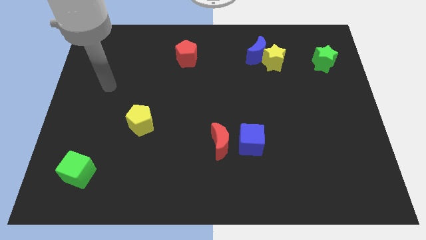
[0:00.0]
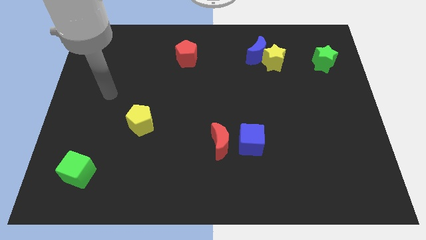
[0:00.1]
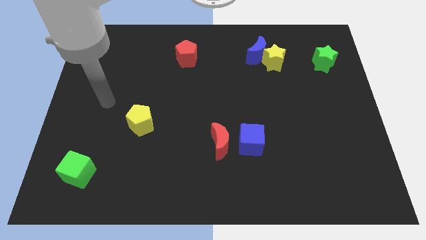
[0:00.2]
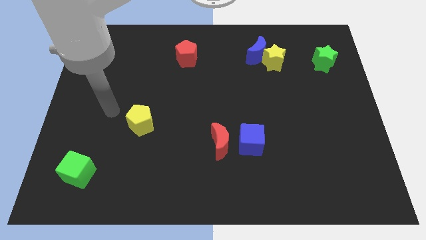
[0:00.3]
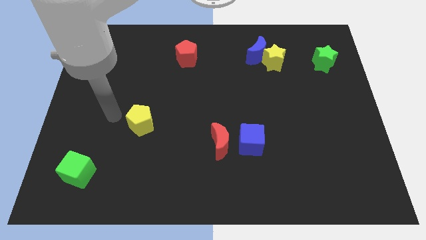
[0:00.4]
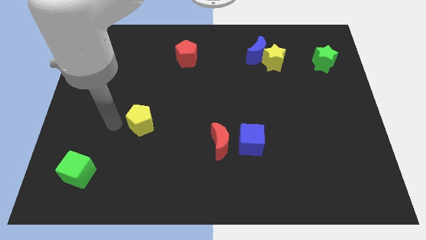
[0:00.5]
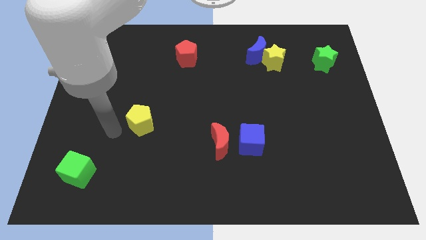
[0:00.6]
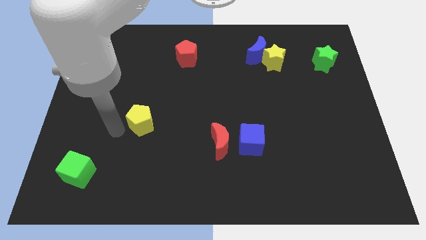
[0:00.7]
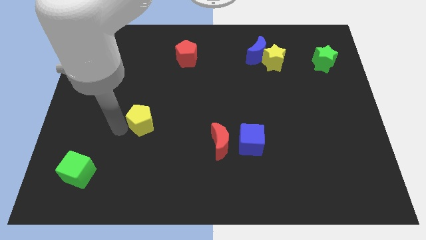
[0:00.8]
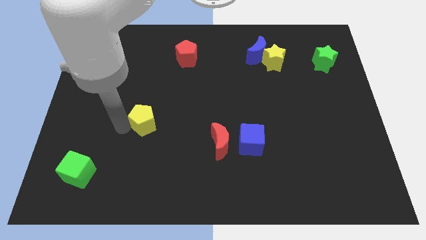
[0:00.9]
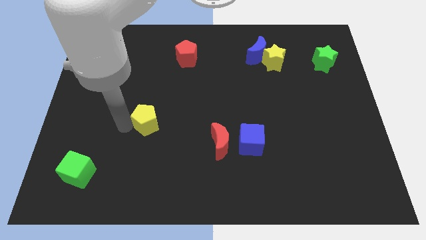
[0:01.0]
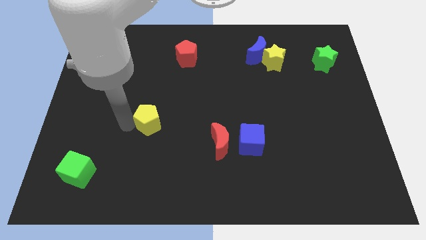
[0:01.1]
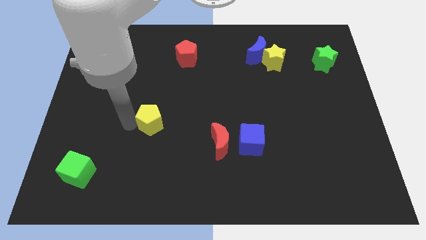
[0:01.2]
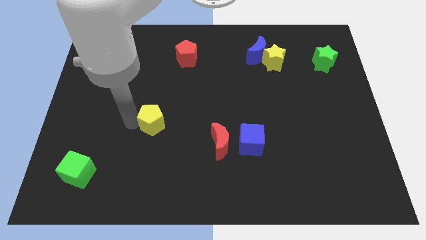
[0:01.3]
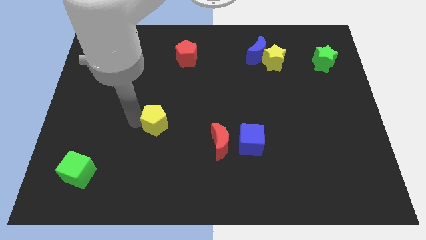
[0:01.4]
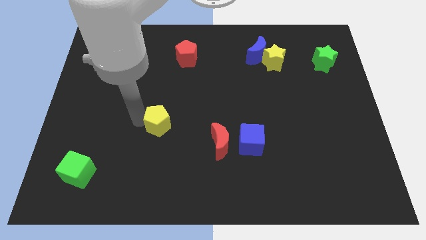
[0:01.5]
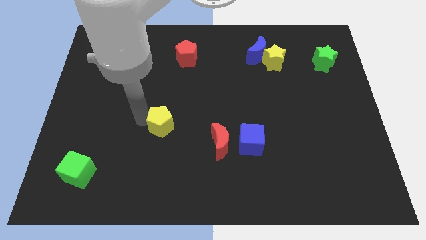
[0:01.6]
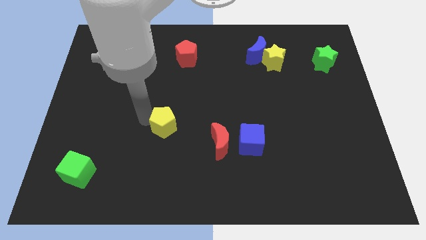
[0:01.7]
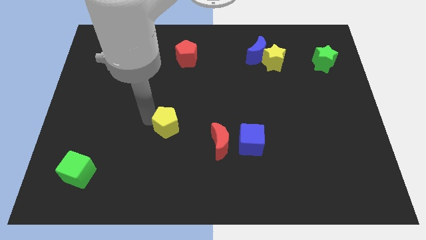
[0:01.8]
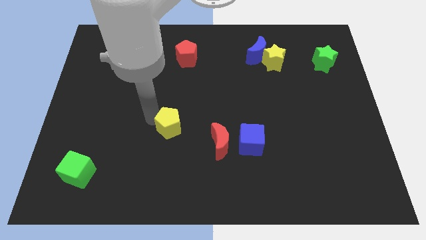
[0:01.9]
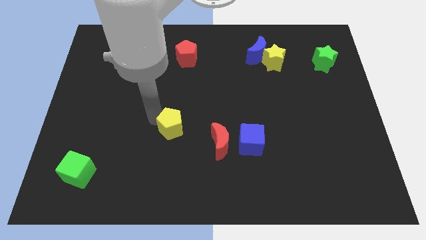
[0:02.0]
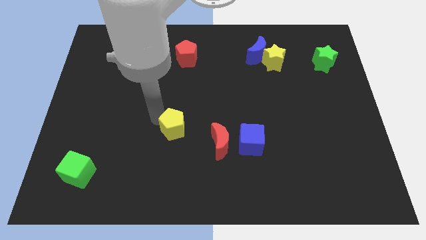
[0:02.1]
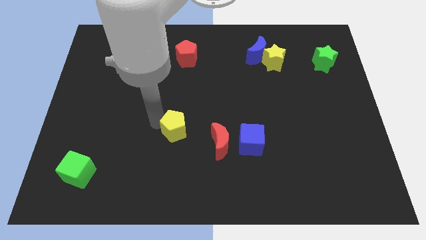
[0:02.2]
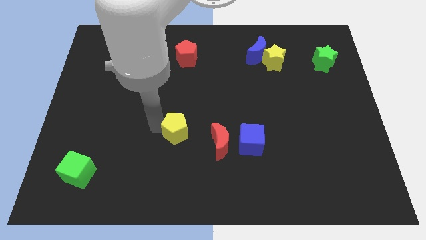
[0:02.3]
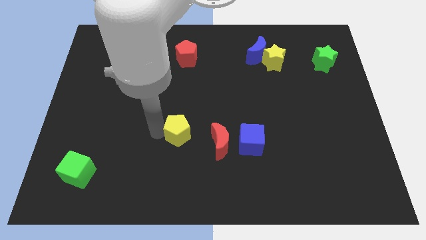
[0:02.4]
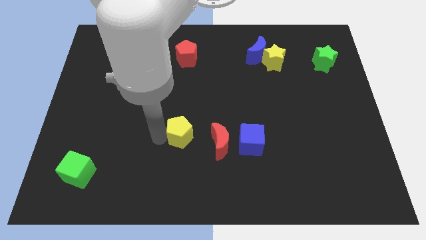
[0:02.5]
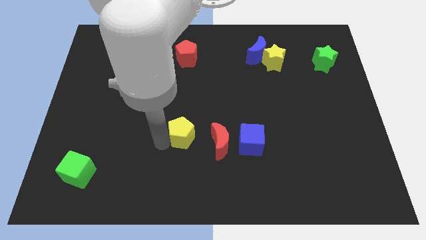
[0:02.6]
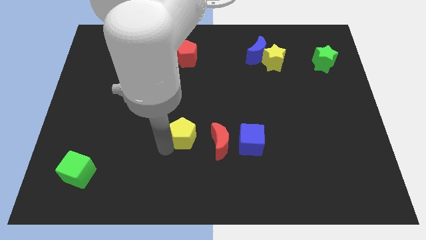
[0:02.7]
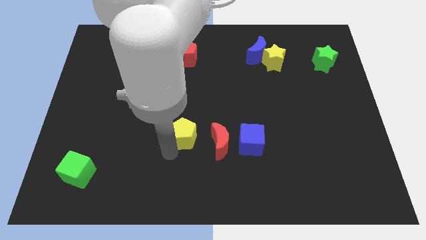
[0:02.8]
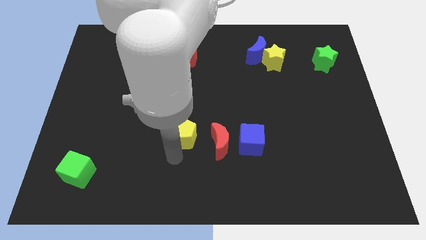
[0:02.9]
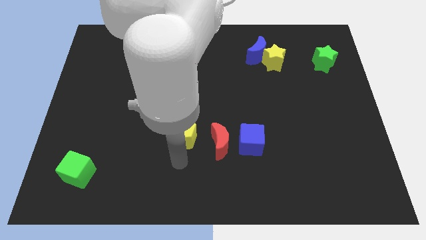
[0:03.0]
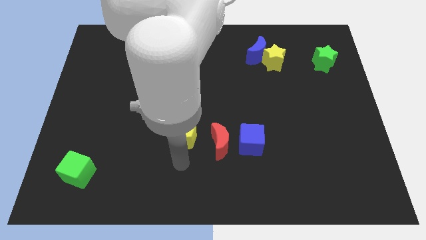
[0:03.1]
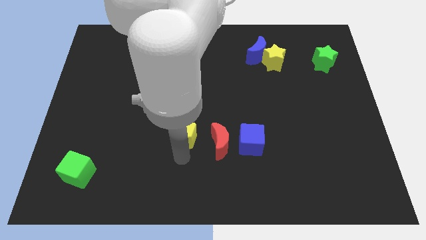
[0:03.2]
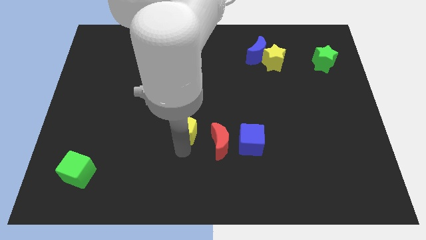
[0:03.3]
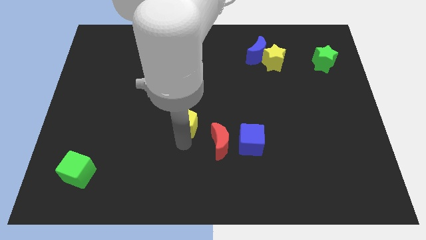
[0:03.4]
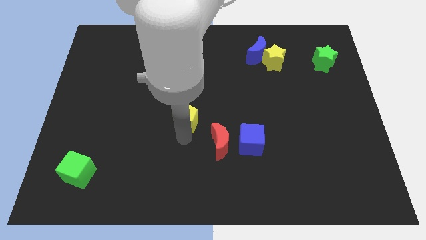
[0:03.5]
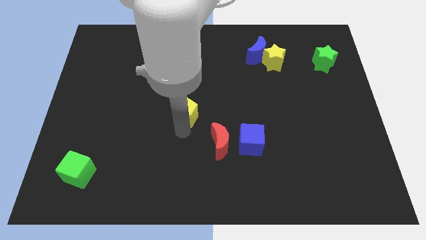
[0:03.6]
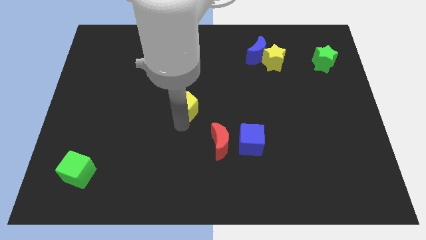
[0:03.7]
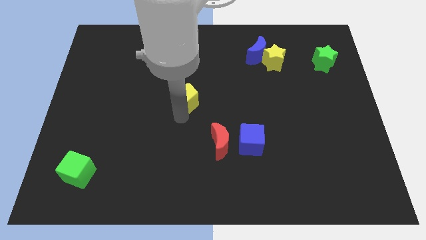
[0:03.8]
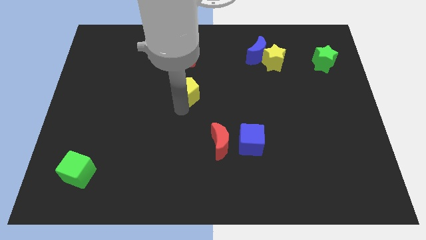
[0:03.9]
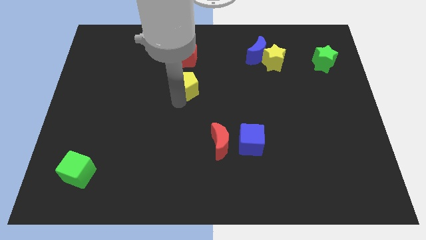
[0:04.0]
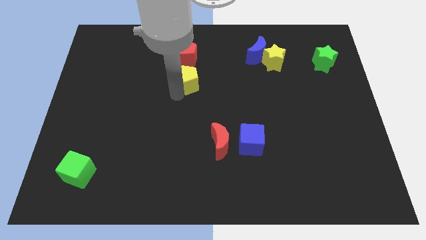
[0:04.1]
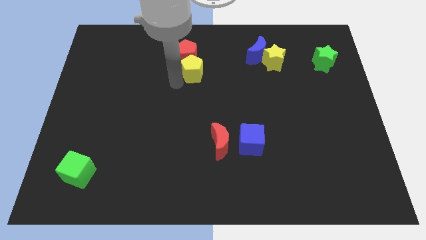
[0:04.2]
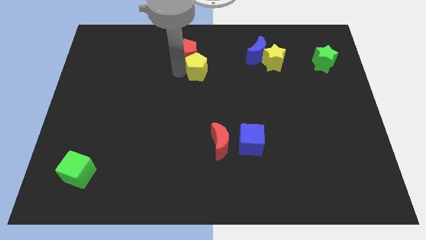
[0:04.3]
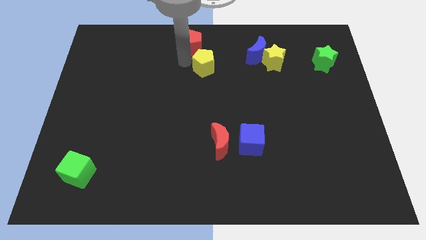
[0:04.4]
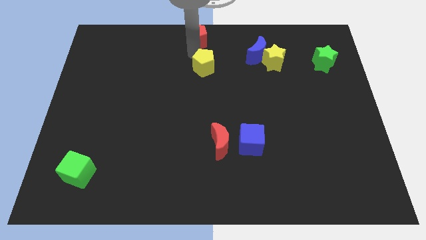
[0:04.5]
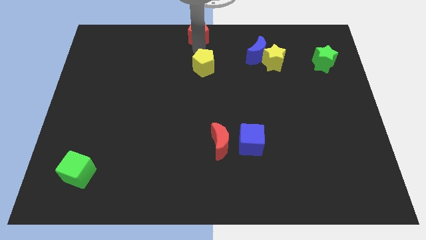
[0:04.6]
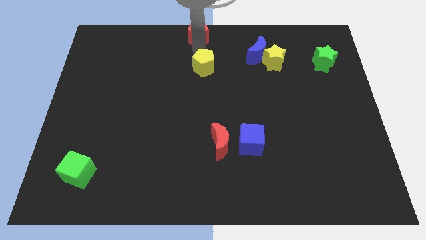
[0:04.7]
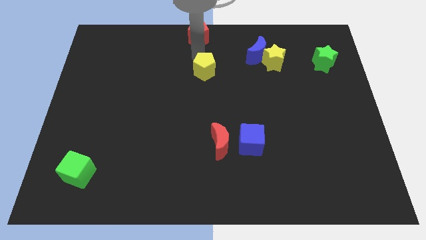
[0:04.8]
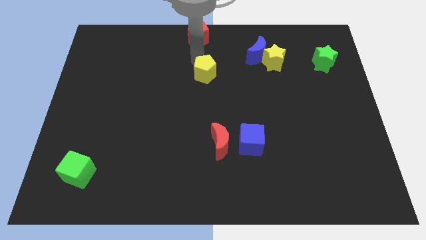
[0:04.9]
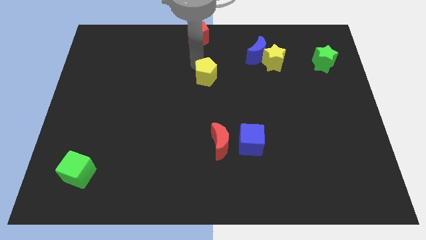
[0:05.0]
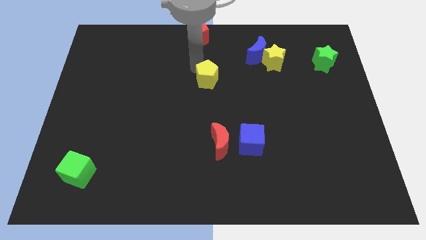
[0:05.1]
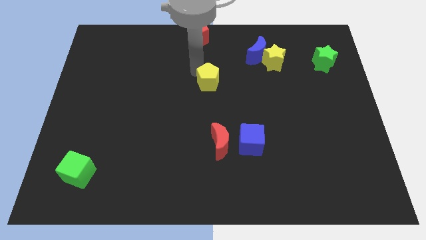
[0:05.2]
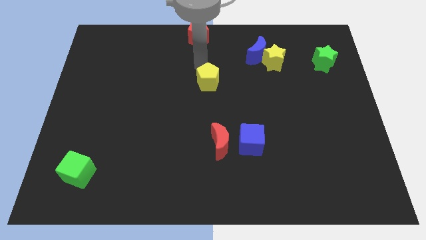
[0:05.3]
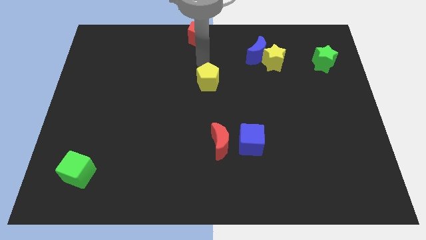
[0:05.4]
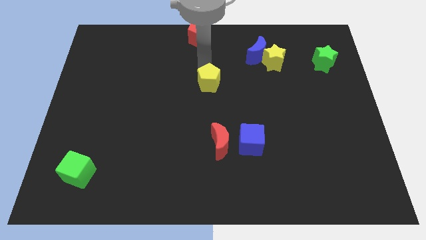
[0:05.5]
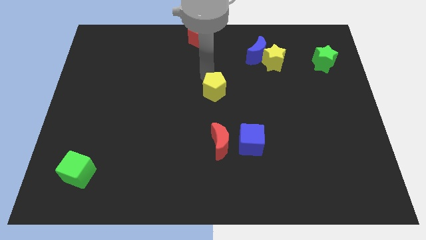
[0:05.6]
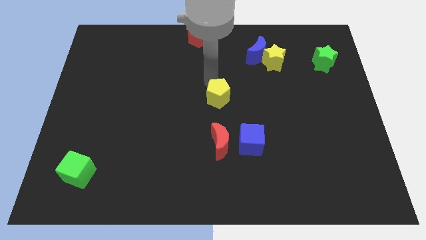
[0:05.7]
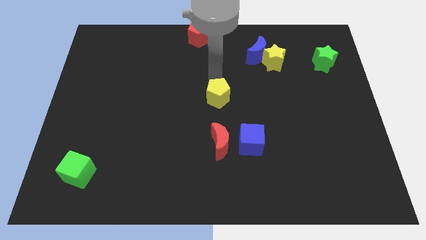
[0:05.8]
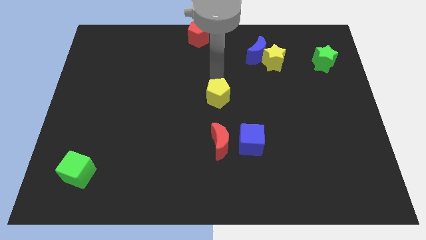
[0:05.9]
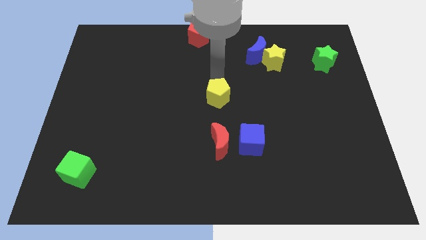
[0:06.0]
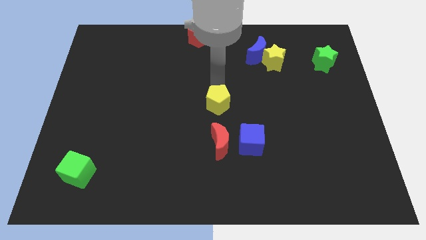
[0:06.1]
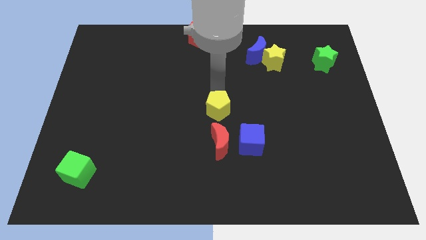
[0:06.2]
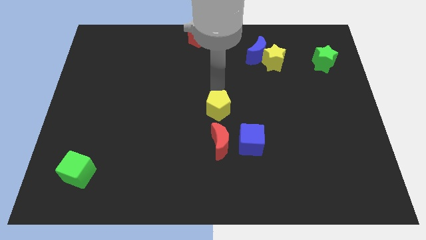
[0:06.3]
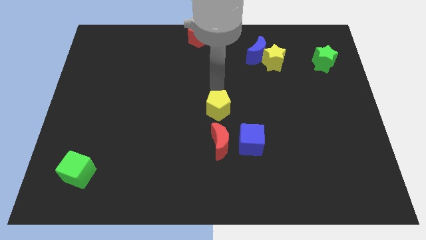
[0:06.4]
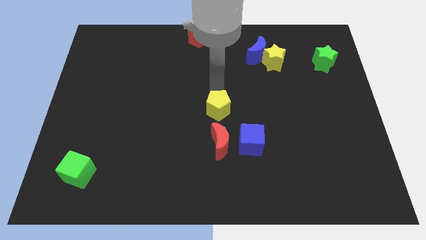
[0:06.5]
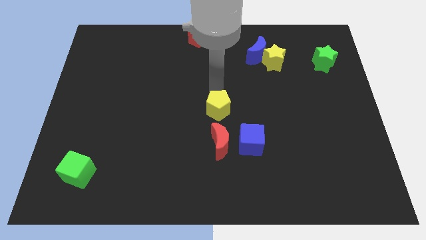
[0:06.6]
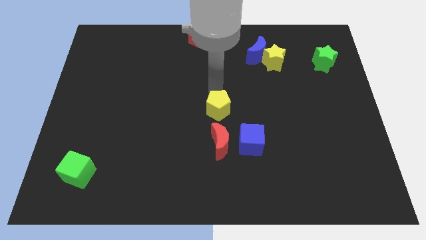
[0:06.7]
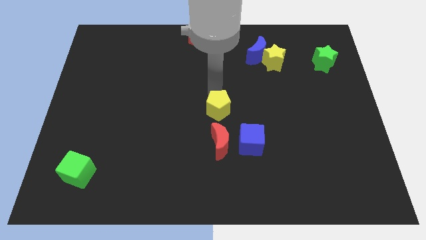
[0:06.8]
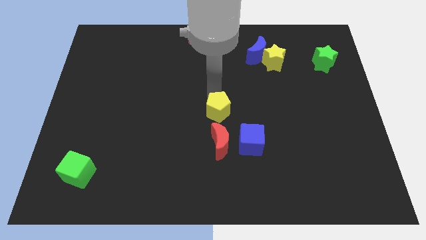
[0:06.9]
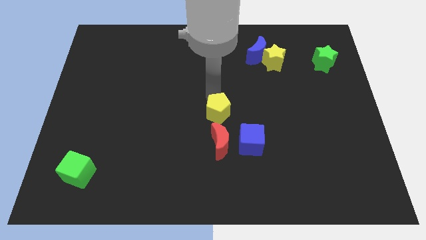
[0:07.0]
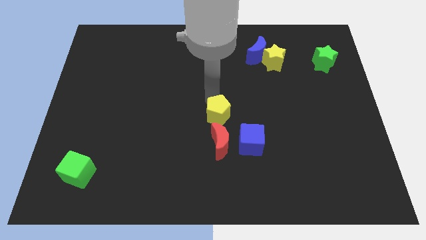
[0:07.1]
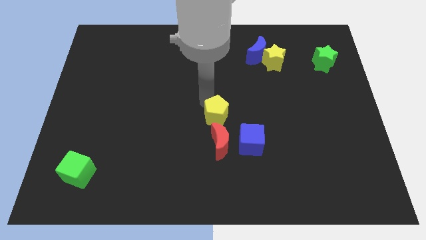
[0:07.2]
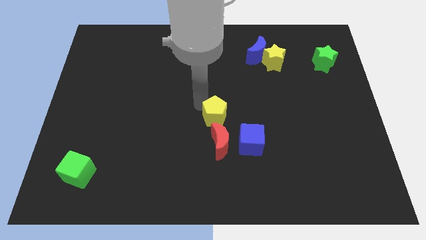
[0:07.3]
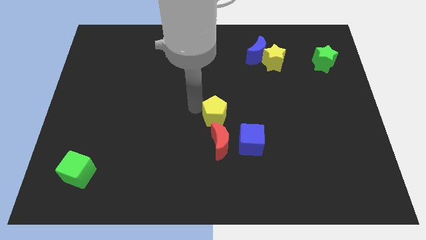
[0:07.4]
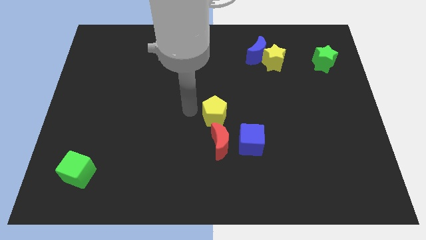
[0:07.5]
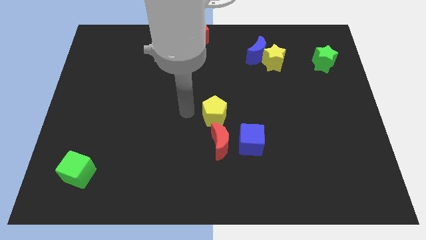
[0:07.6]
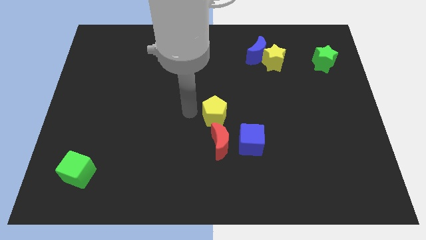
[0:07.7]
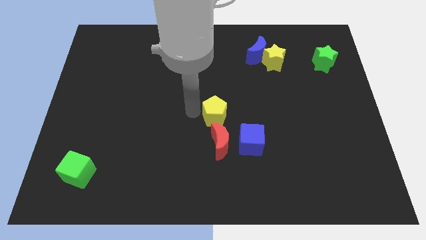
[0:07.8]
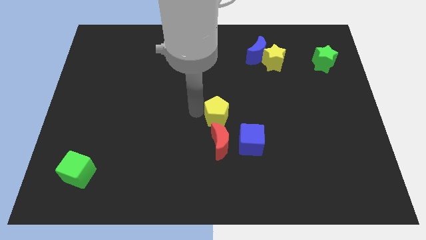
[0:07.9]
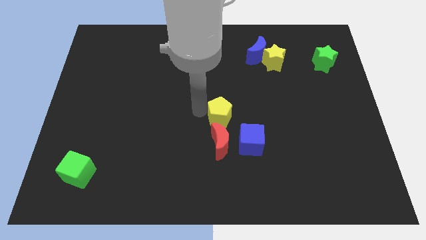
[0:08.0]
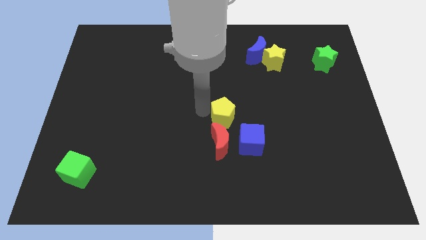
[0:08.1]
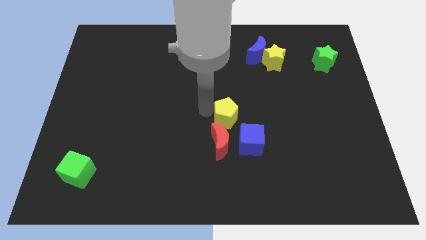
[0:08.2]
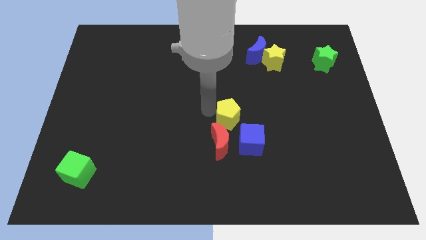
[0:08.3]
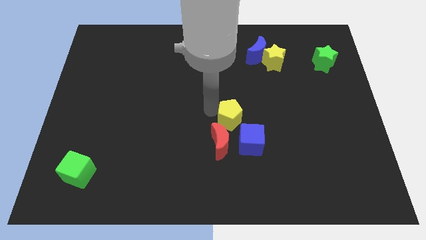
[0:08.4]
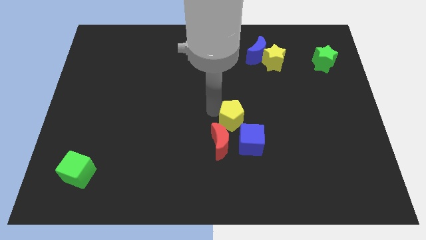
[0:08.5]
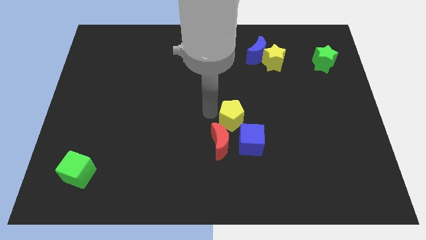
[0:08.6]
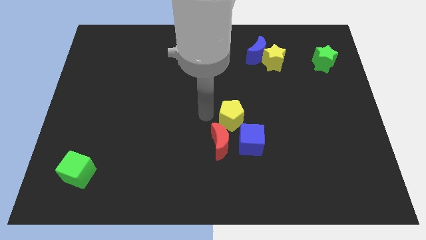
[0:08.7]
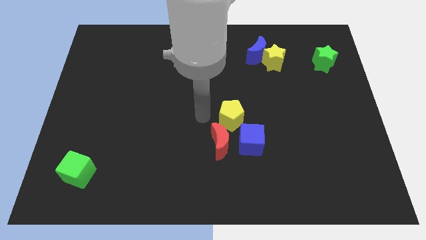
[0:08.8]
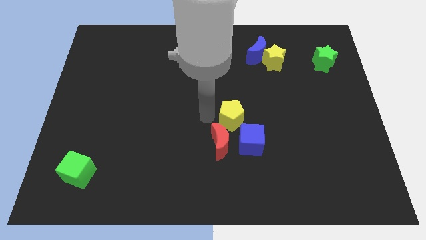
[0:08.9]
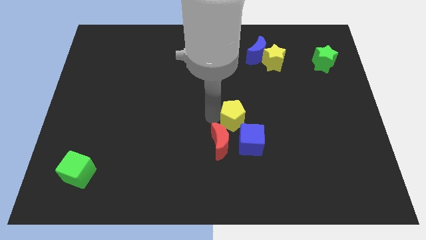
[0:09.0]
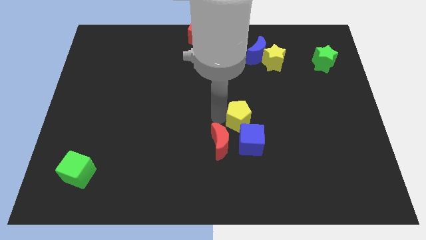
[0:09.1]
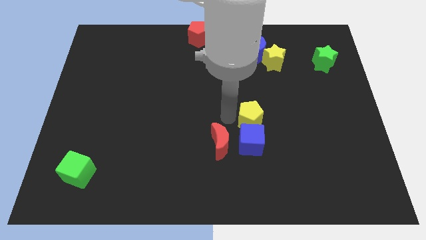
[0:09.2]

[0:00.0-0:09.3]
put the yellow pentagon to the top right side of the blue cube
